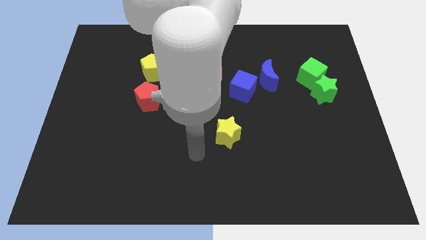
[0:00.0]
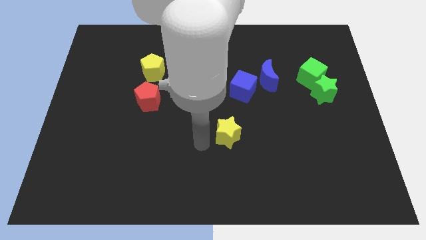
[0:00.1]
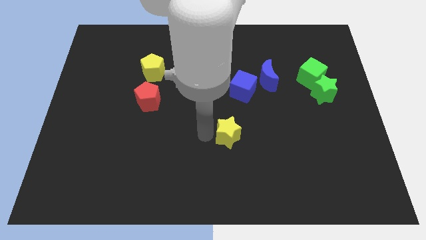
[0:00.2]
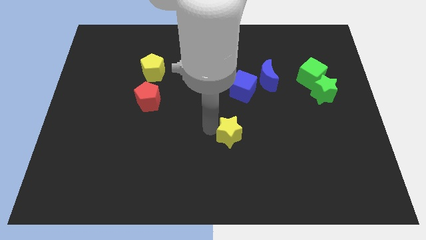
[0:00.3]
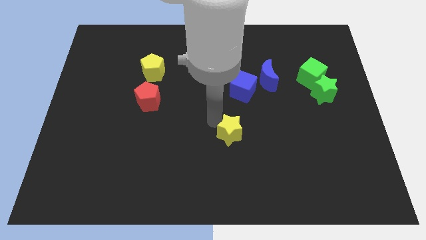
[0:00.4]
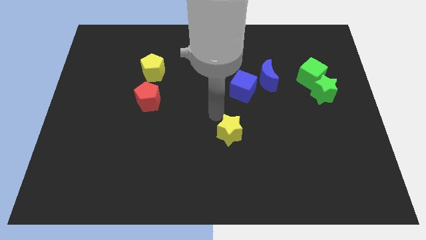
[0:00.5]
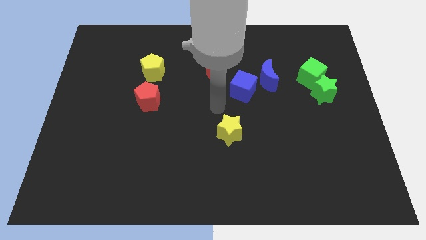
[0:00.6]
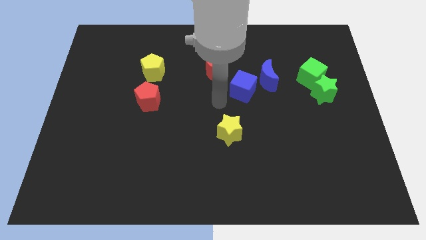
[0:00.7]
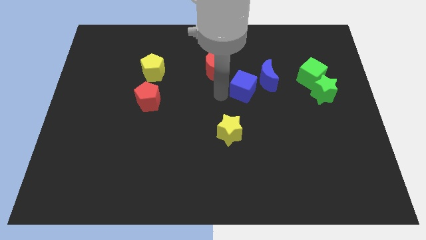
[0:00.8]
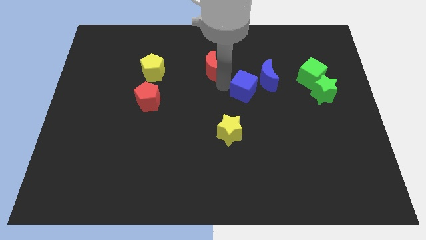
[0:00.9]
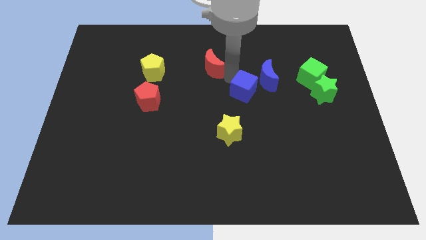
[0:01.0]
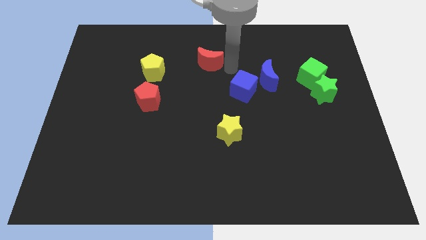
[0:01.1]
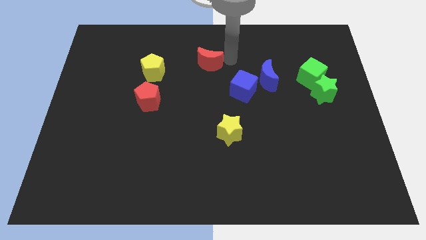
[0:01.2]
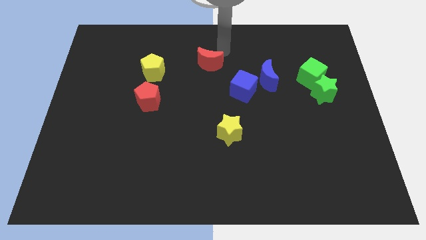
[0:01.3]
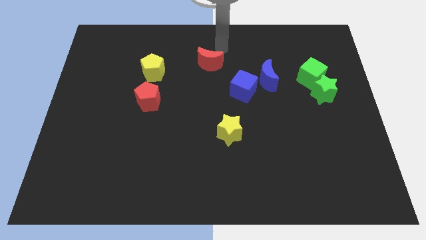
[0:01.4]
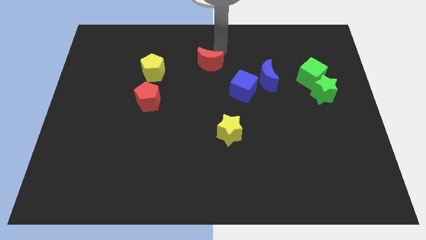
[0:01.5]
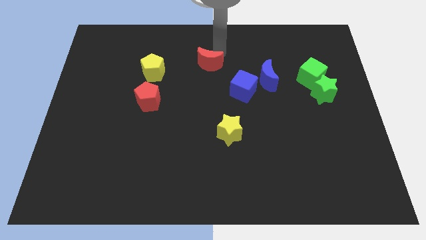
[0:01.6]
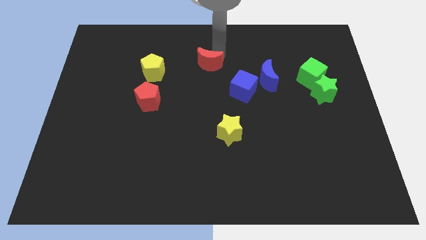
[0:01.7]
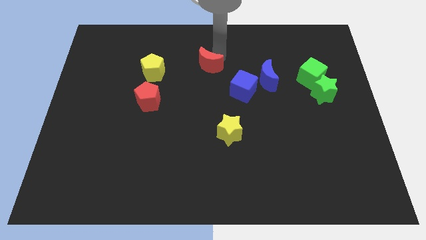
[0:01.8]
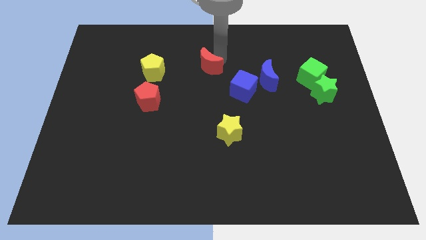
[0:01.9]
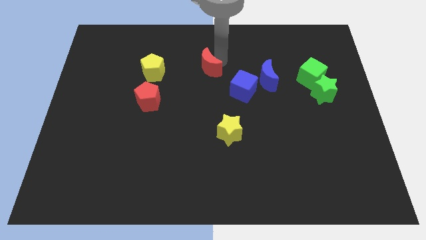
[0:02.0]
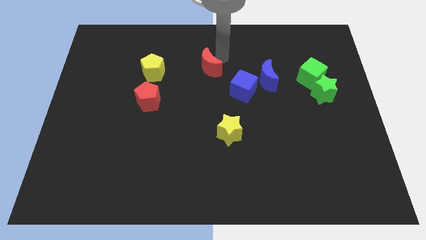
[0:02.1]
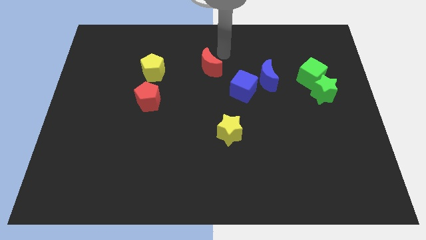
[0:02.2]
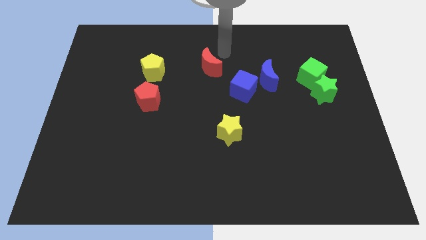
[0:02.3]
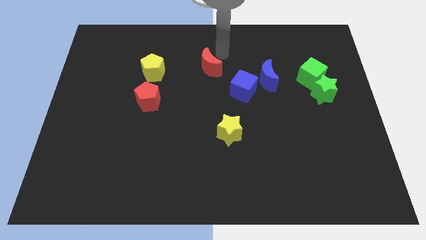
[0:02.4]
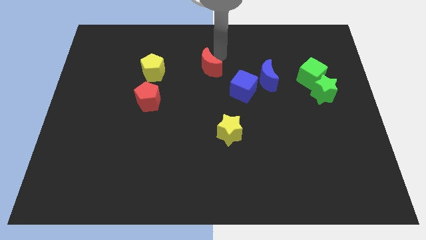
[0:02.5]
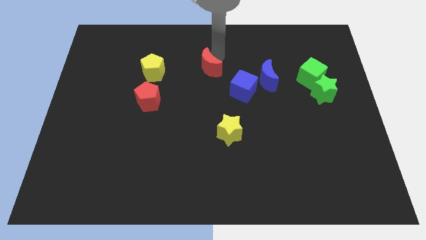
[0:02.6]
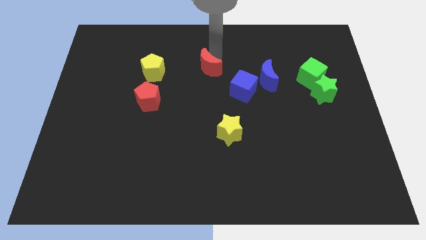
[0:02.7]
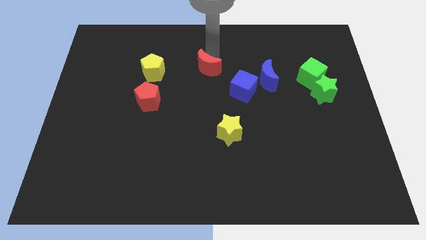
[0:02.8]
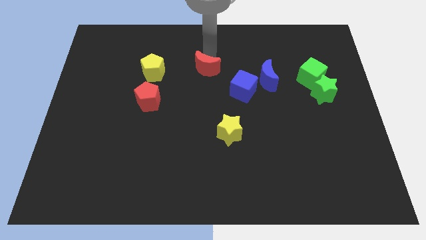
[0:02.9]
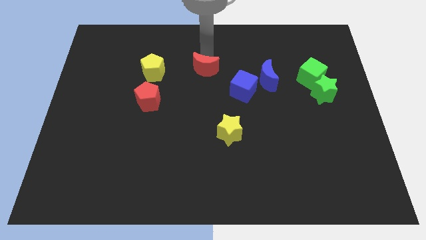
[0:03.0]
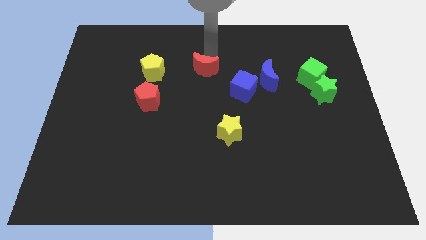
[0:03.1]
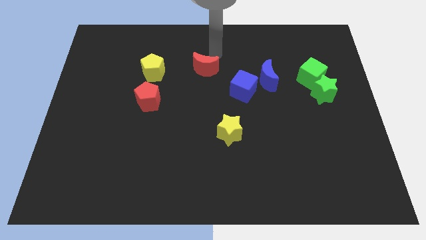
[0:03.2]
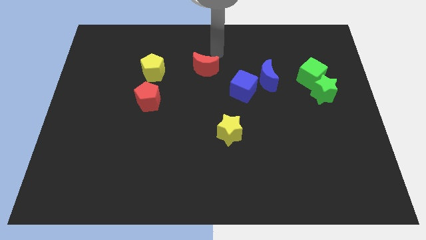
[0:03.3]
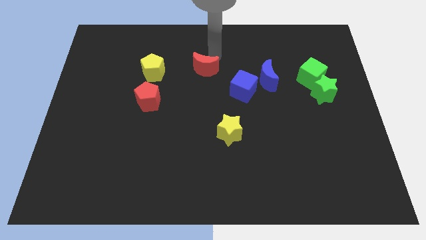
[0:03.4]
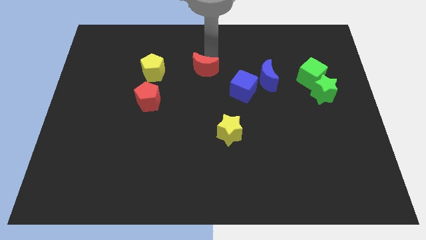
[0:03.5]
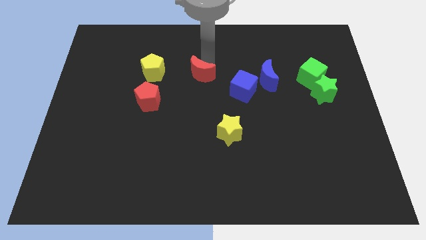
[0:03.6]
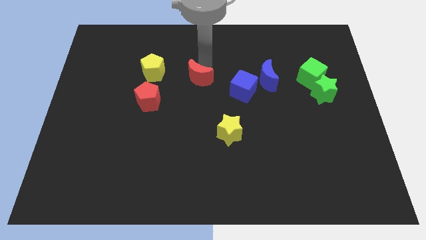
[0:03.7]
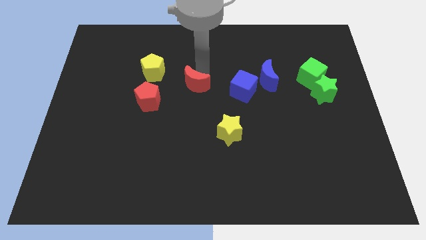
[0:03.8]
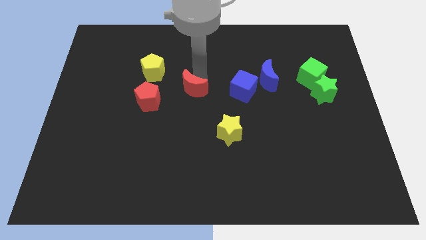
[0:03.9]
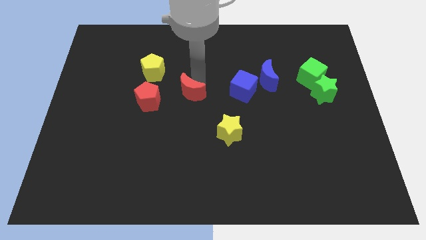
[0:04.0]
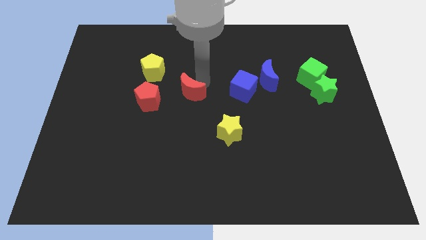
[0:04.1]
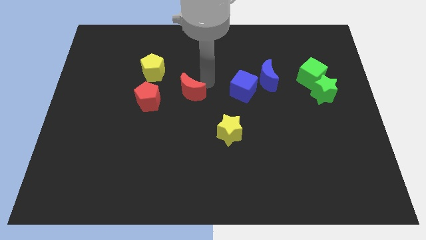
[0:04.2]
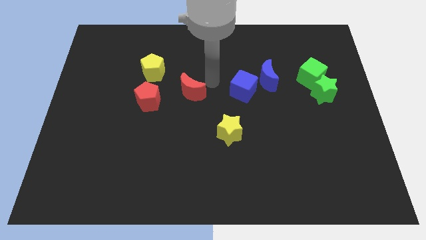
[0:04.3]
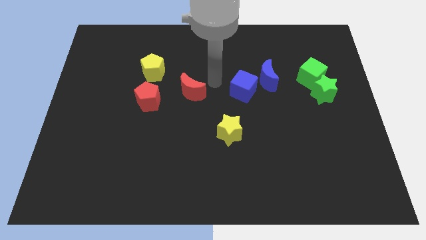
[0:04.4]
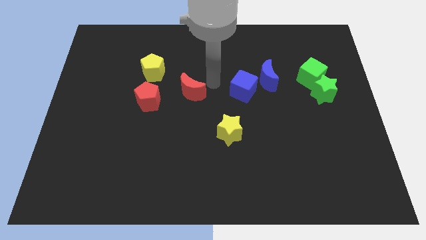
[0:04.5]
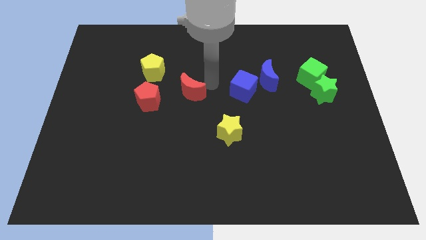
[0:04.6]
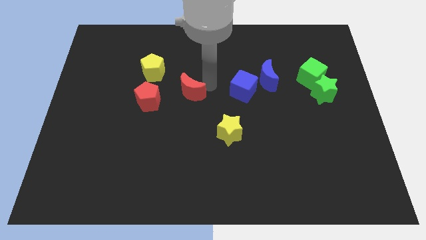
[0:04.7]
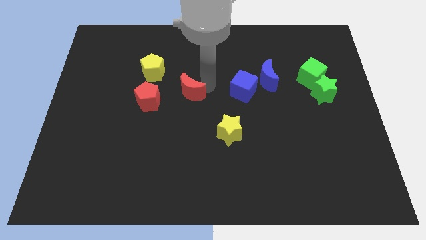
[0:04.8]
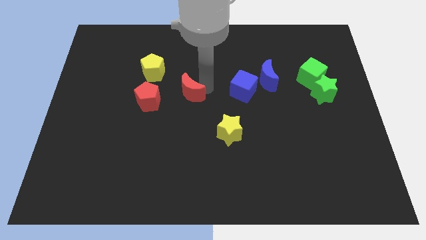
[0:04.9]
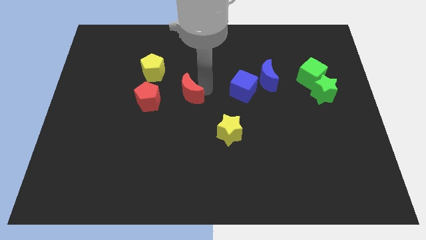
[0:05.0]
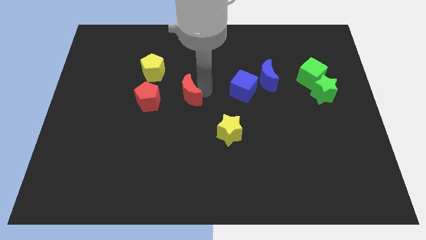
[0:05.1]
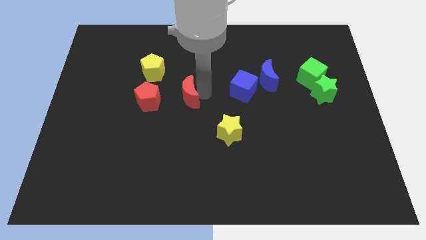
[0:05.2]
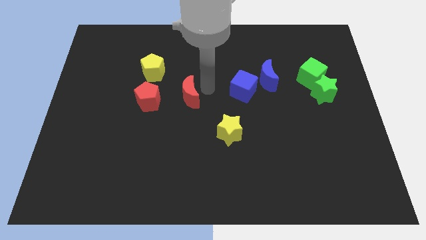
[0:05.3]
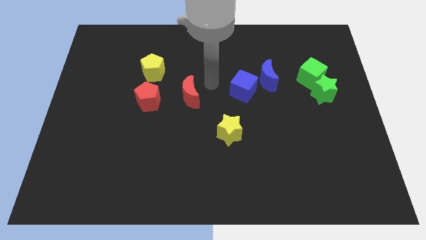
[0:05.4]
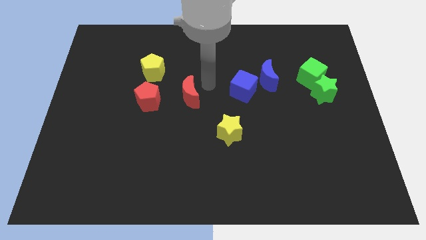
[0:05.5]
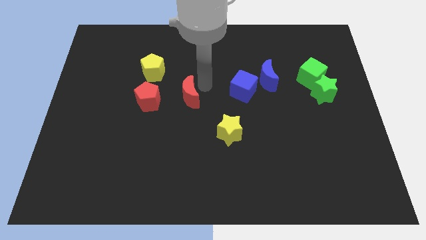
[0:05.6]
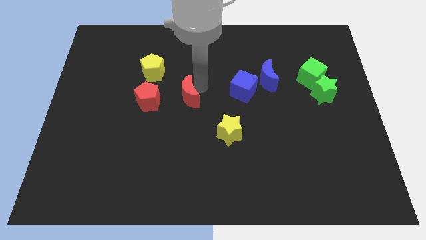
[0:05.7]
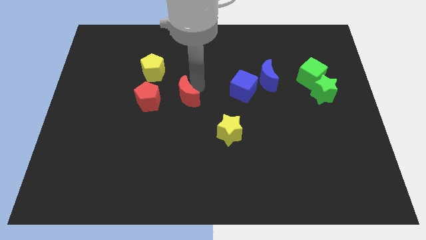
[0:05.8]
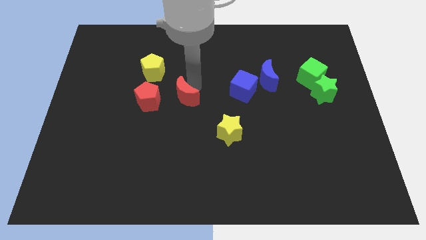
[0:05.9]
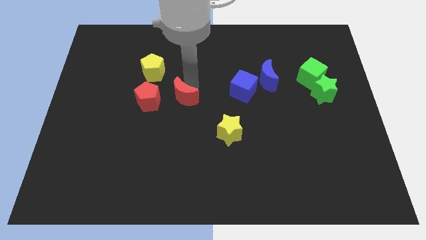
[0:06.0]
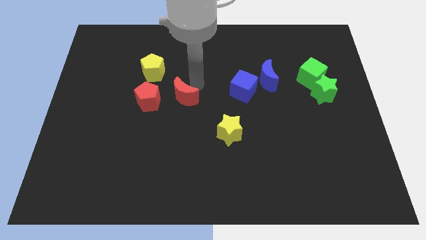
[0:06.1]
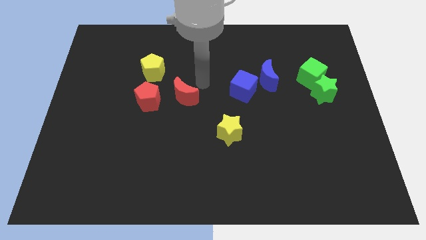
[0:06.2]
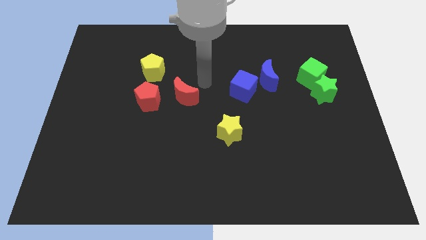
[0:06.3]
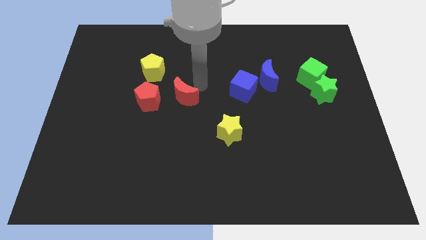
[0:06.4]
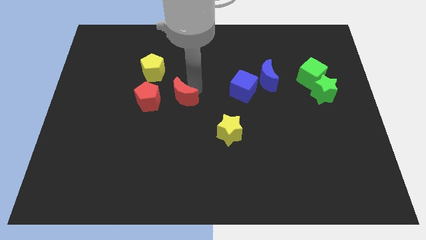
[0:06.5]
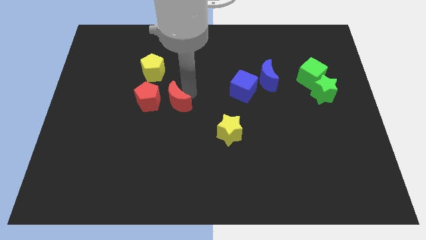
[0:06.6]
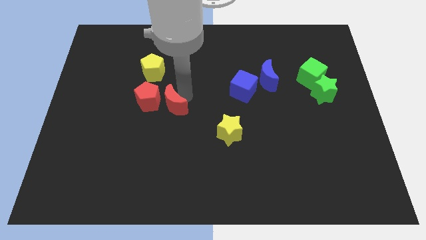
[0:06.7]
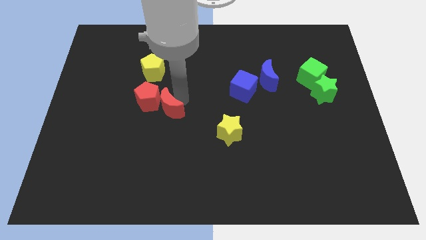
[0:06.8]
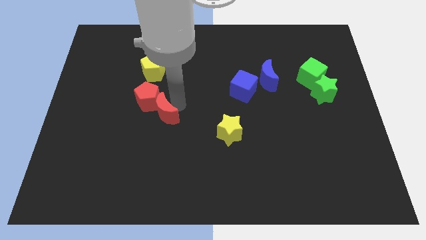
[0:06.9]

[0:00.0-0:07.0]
put the red moon to the bottom side of the yellow pentagon
